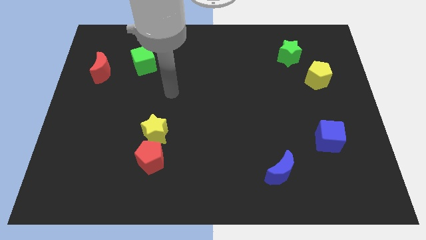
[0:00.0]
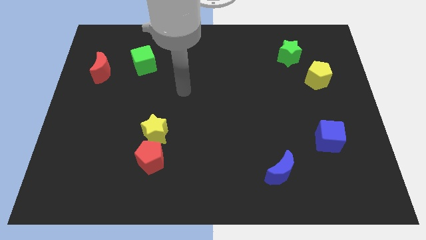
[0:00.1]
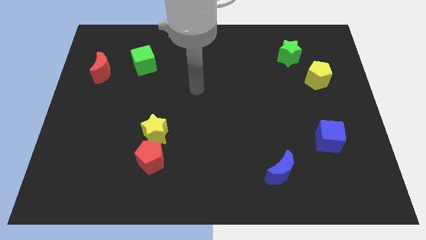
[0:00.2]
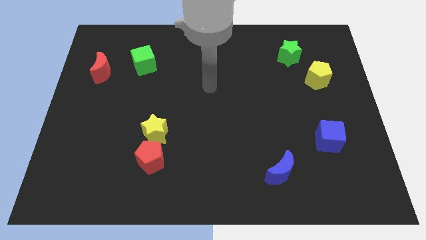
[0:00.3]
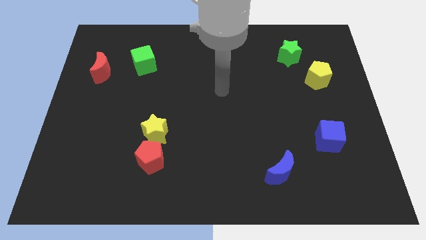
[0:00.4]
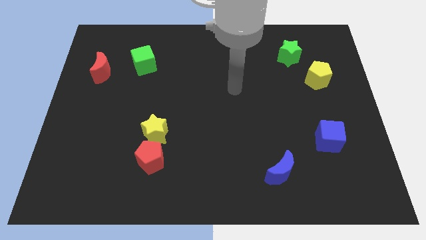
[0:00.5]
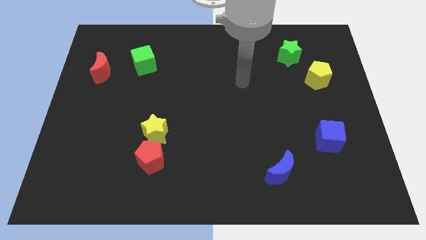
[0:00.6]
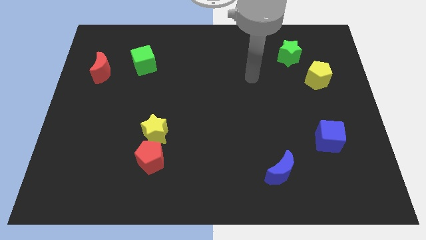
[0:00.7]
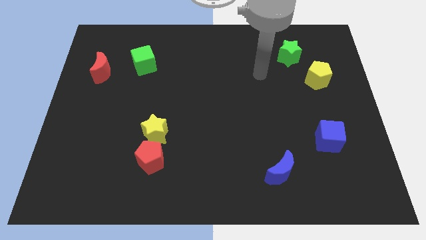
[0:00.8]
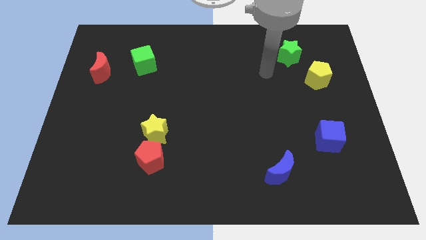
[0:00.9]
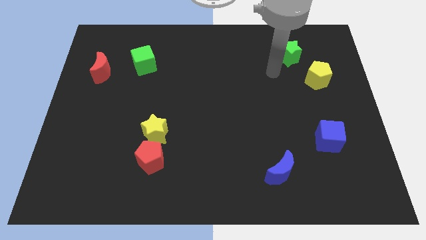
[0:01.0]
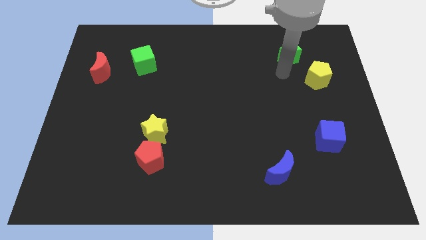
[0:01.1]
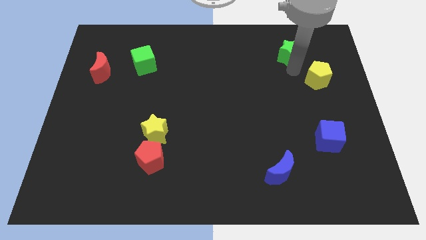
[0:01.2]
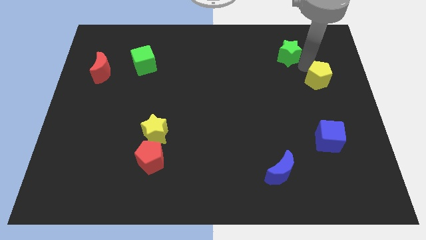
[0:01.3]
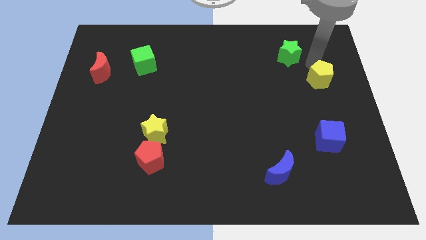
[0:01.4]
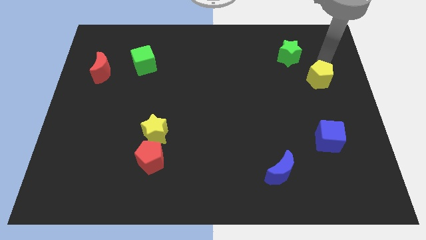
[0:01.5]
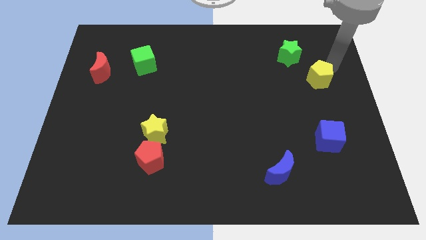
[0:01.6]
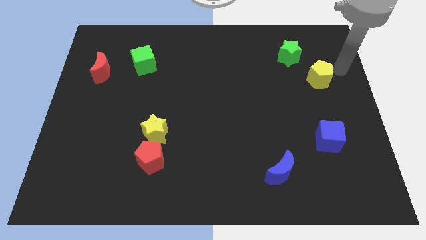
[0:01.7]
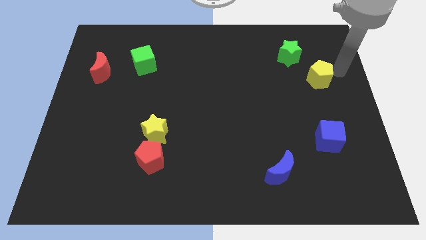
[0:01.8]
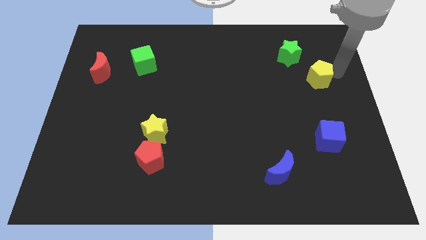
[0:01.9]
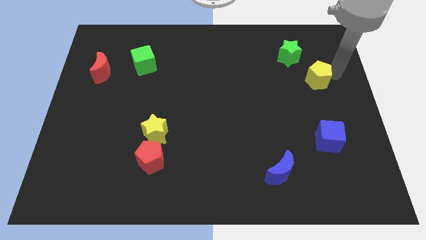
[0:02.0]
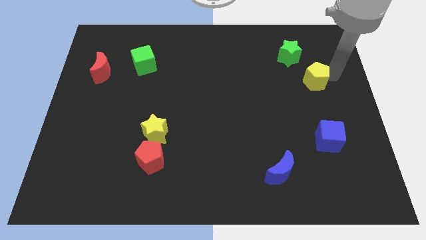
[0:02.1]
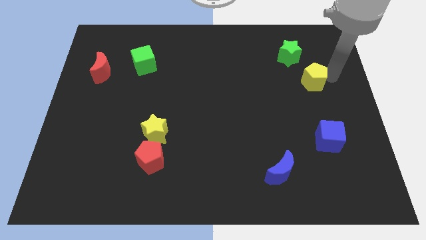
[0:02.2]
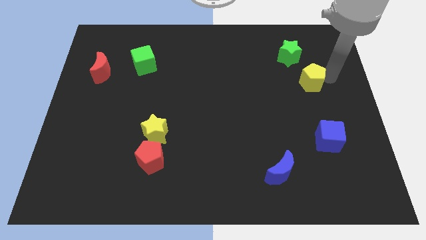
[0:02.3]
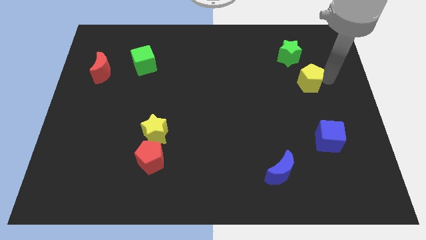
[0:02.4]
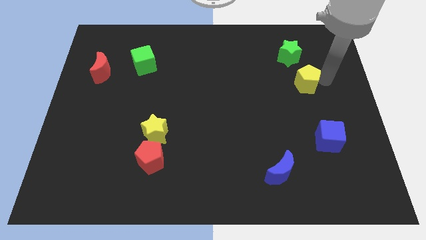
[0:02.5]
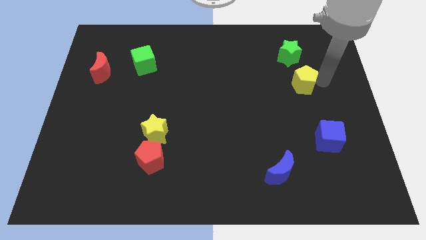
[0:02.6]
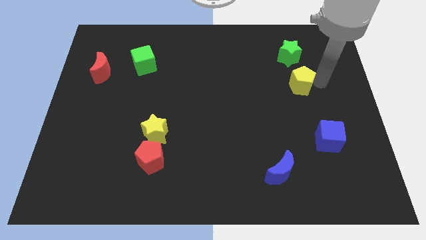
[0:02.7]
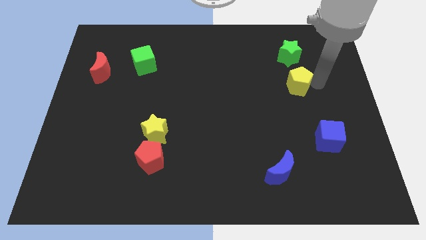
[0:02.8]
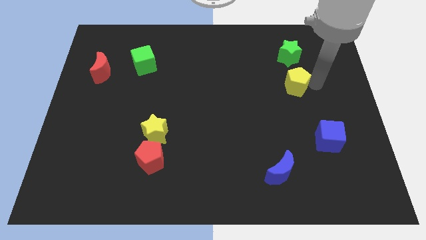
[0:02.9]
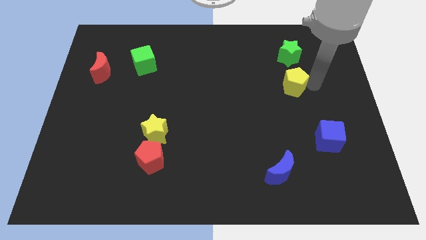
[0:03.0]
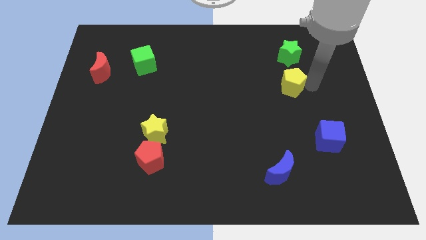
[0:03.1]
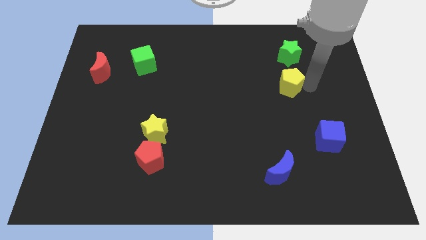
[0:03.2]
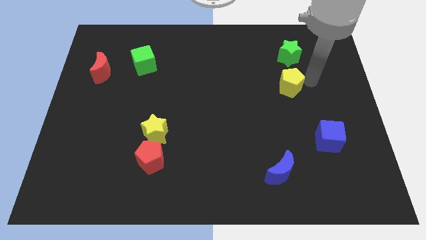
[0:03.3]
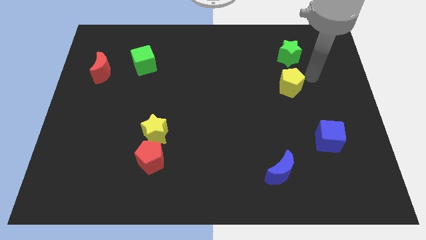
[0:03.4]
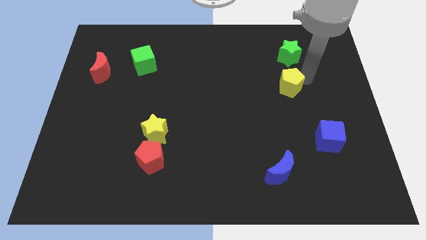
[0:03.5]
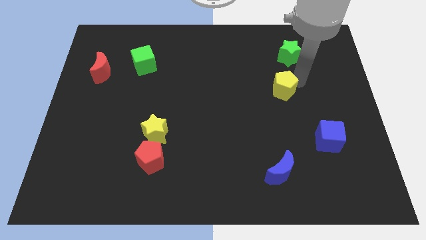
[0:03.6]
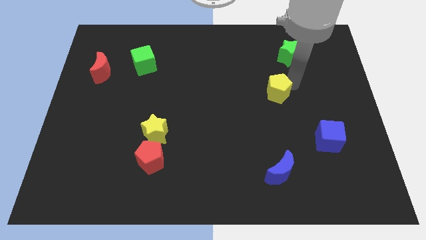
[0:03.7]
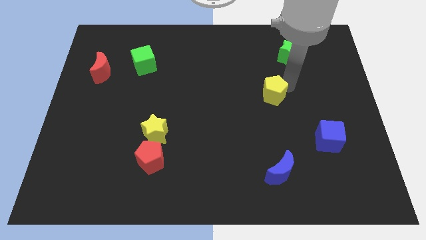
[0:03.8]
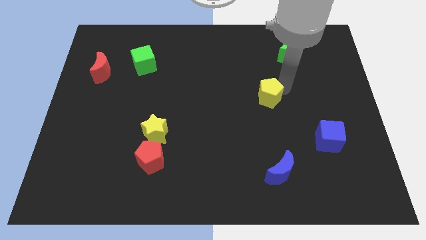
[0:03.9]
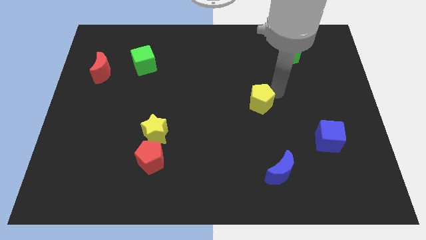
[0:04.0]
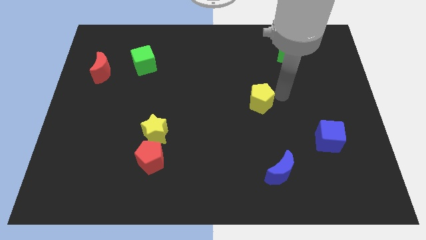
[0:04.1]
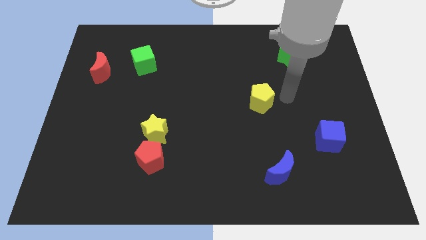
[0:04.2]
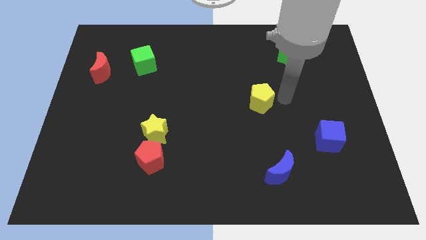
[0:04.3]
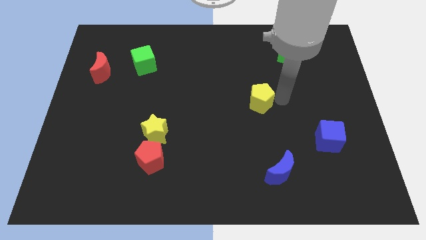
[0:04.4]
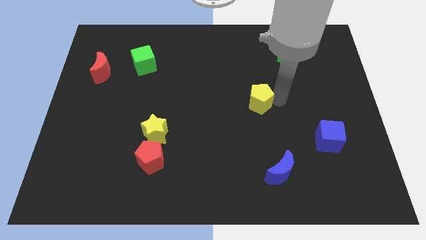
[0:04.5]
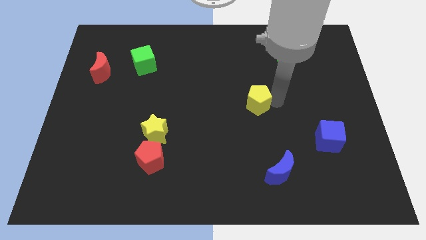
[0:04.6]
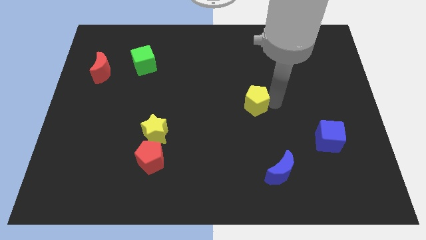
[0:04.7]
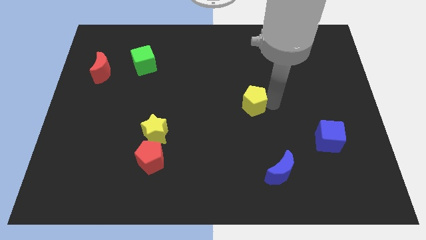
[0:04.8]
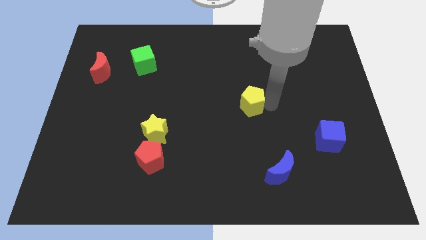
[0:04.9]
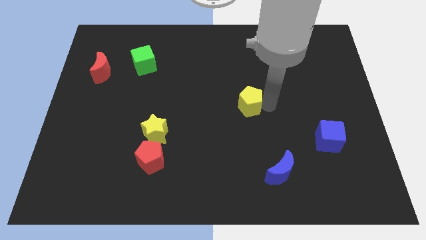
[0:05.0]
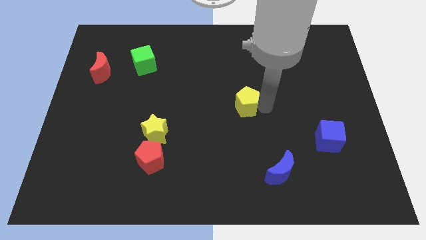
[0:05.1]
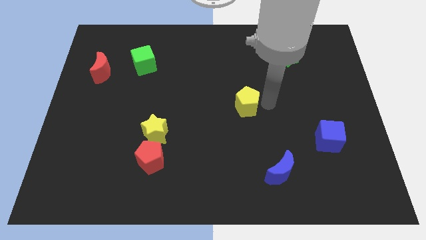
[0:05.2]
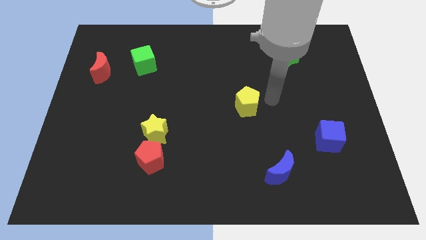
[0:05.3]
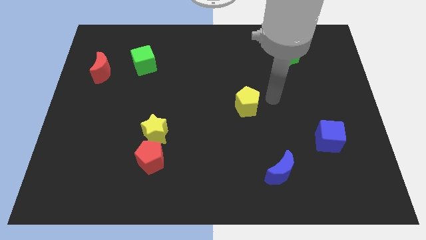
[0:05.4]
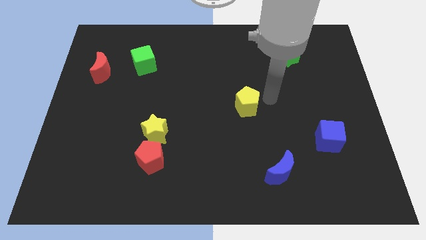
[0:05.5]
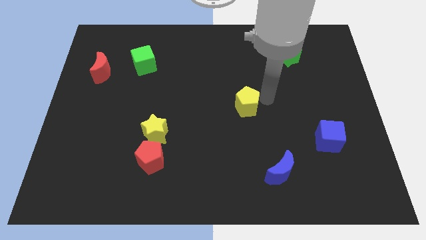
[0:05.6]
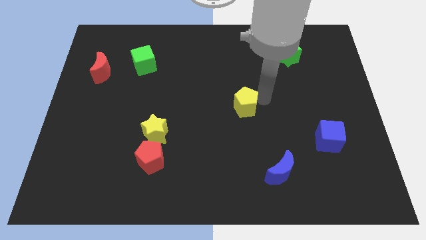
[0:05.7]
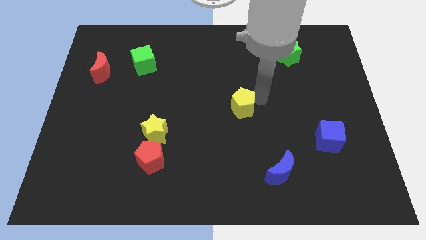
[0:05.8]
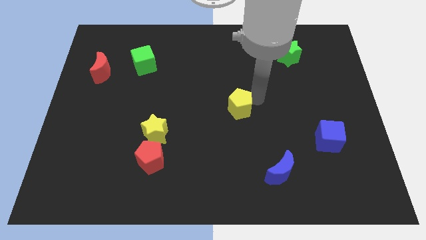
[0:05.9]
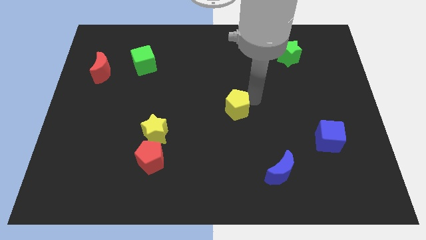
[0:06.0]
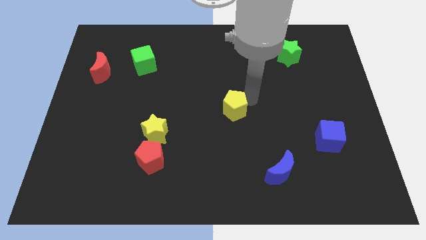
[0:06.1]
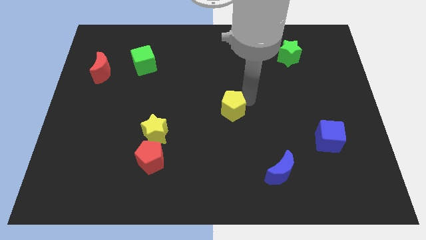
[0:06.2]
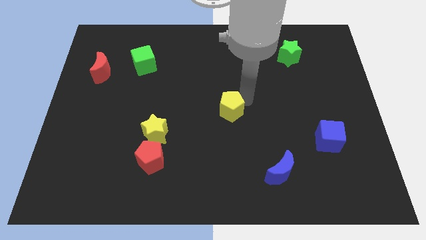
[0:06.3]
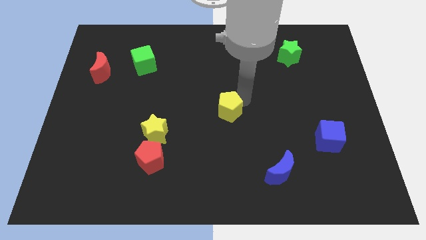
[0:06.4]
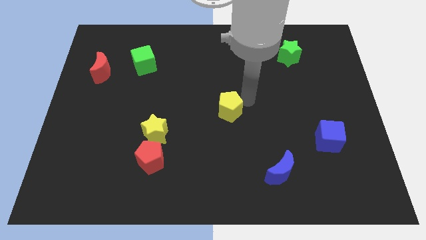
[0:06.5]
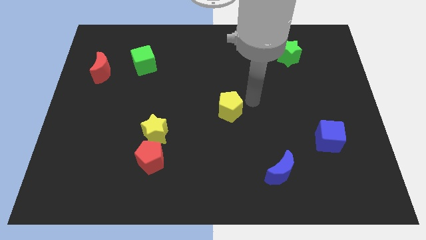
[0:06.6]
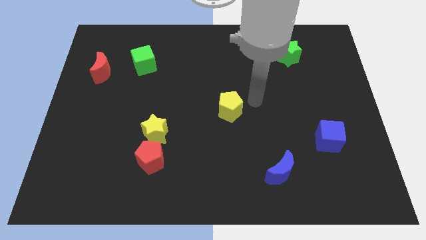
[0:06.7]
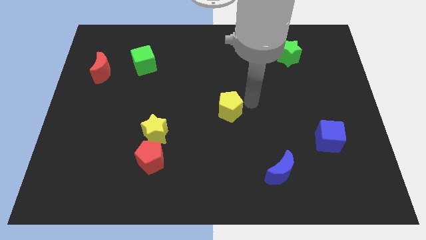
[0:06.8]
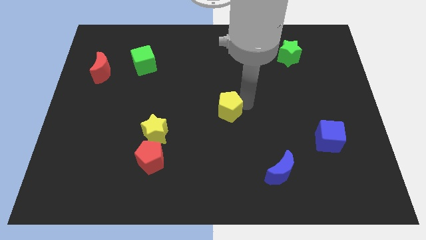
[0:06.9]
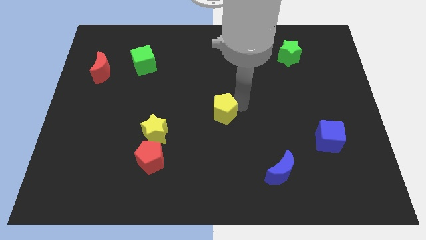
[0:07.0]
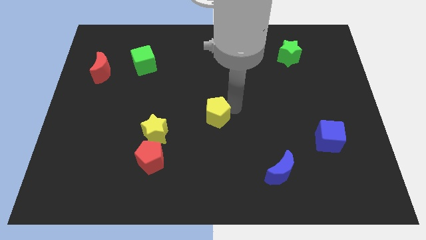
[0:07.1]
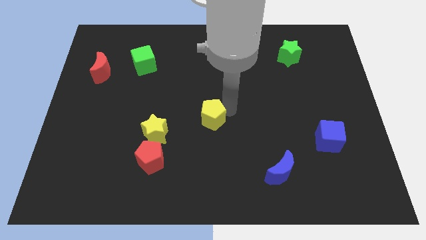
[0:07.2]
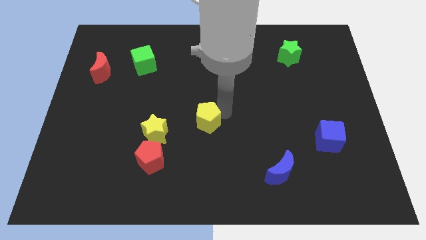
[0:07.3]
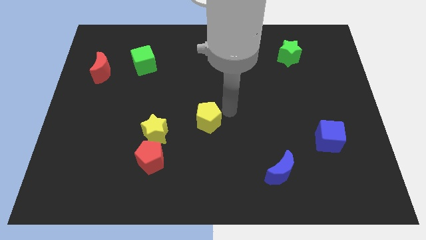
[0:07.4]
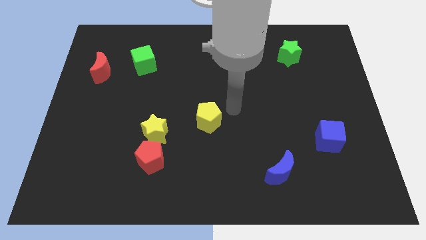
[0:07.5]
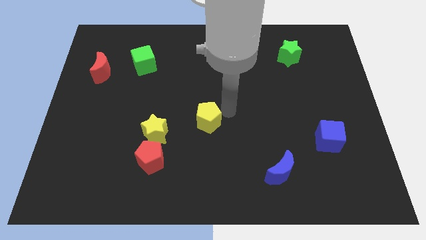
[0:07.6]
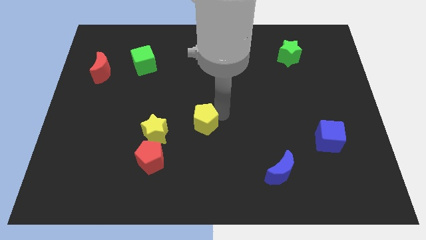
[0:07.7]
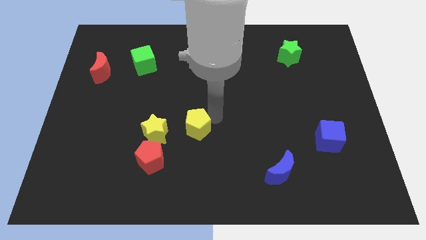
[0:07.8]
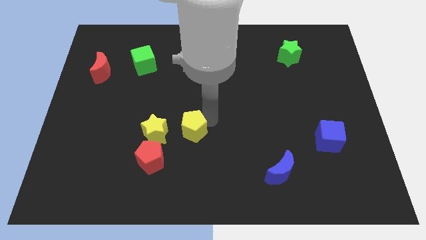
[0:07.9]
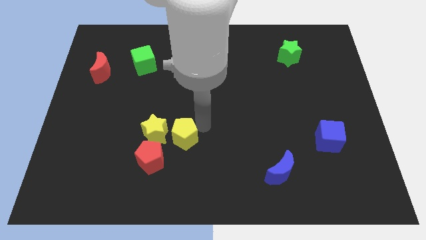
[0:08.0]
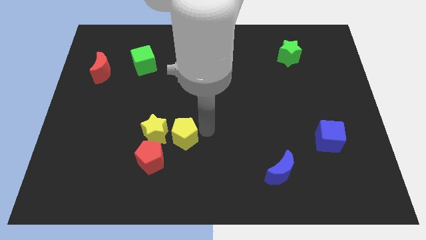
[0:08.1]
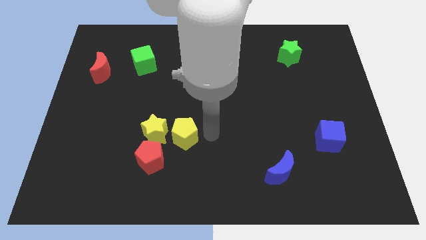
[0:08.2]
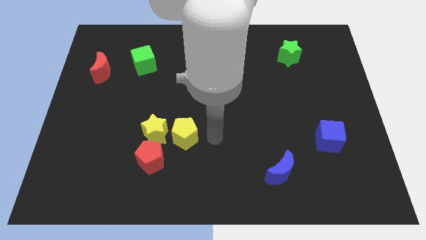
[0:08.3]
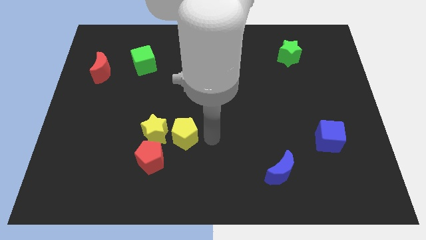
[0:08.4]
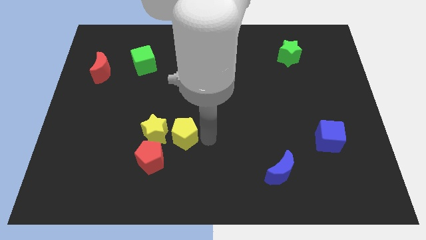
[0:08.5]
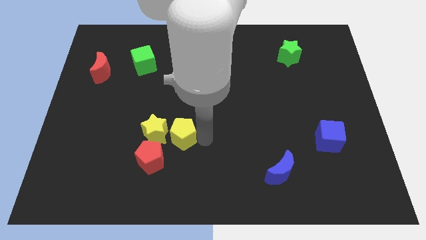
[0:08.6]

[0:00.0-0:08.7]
slide the yellow pentagon to the yellow star
